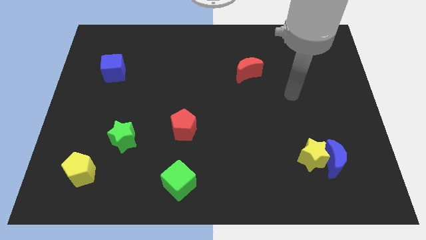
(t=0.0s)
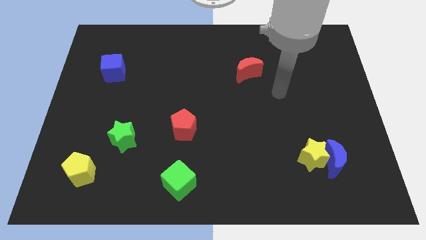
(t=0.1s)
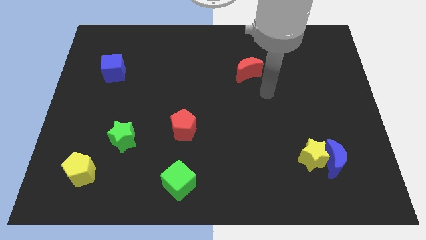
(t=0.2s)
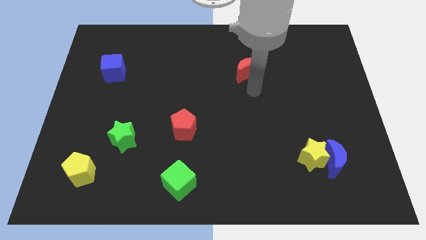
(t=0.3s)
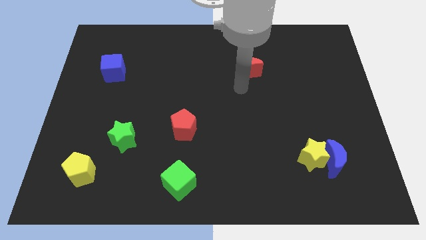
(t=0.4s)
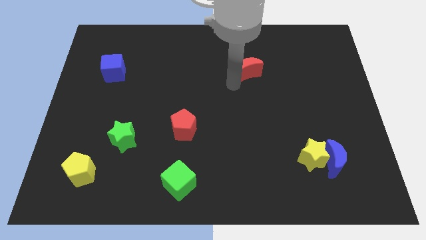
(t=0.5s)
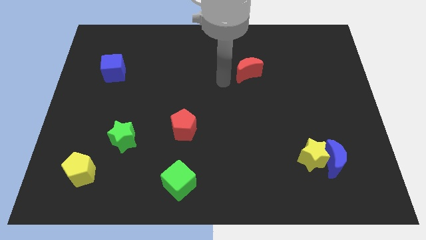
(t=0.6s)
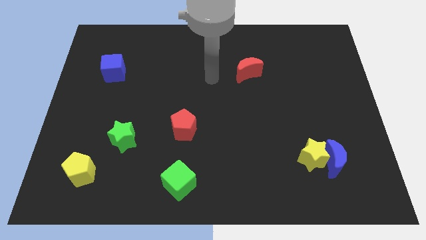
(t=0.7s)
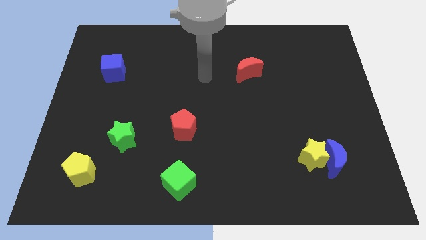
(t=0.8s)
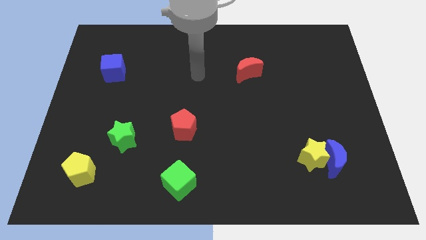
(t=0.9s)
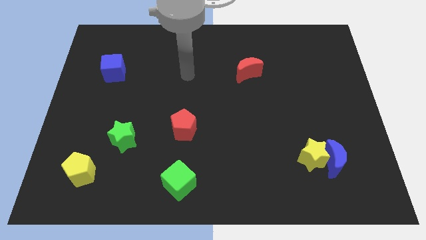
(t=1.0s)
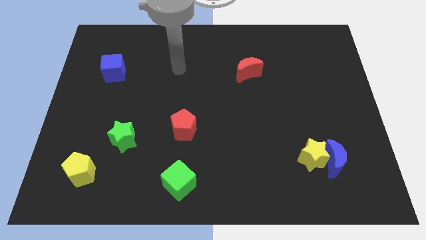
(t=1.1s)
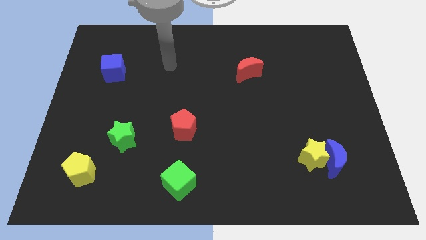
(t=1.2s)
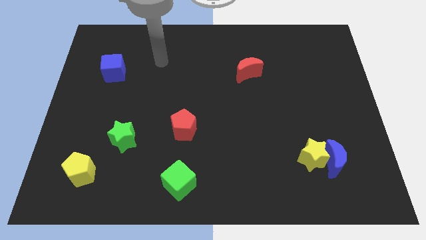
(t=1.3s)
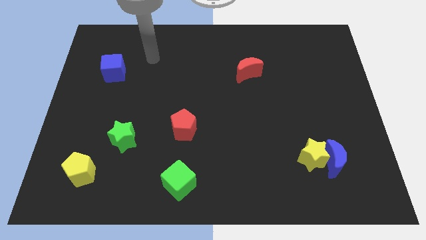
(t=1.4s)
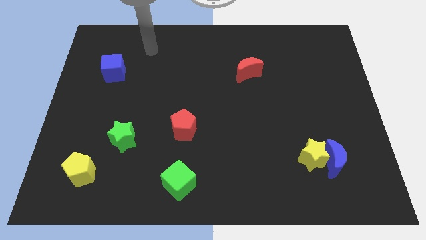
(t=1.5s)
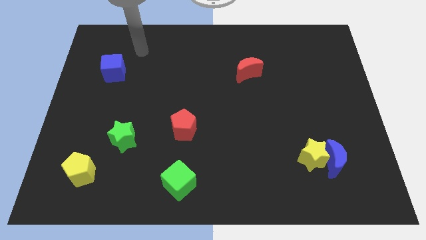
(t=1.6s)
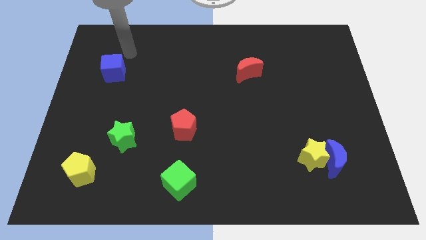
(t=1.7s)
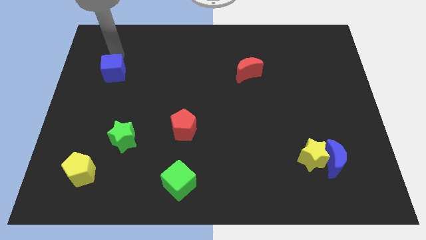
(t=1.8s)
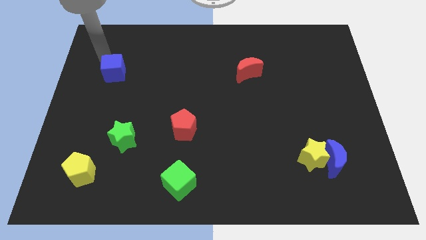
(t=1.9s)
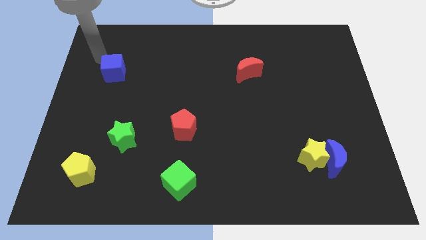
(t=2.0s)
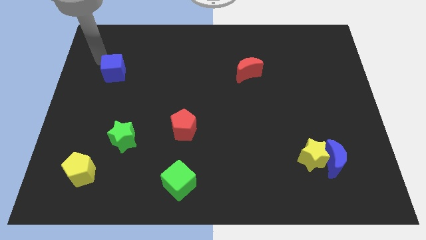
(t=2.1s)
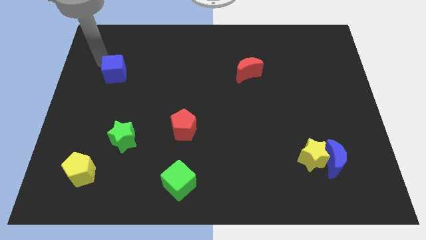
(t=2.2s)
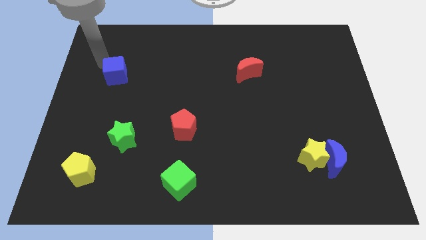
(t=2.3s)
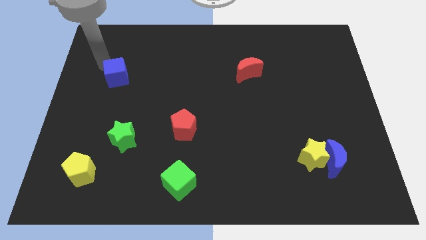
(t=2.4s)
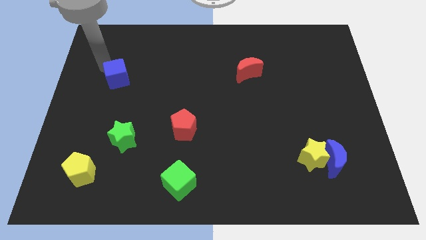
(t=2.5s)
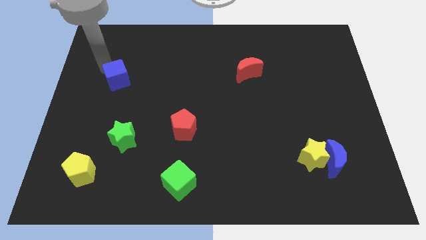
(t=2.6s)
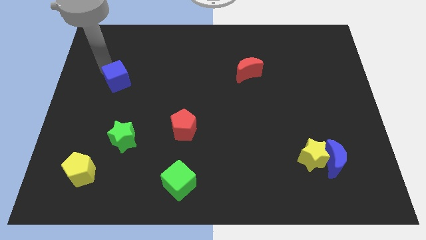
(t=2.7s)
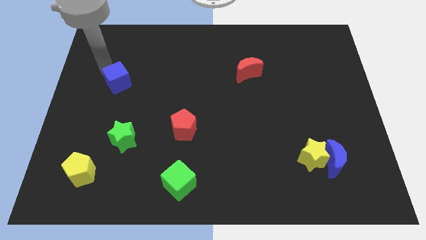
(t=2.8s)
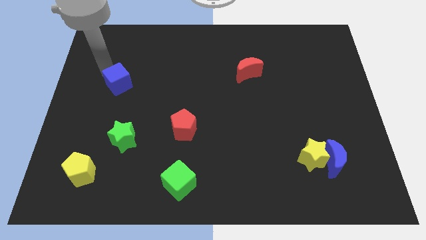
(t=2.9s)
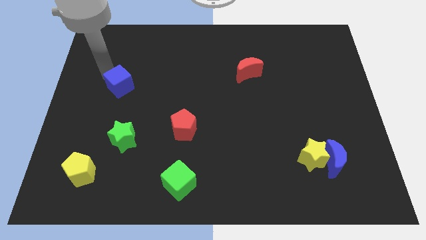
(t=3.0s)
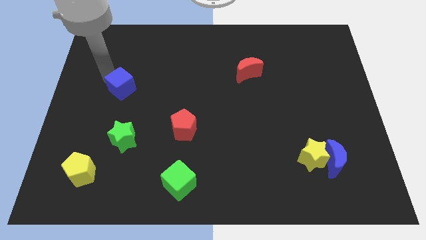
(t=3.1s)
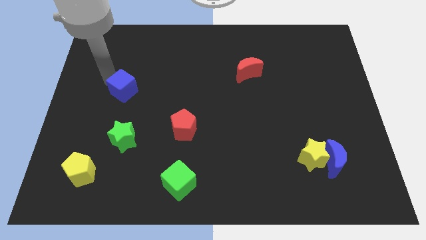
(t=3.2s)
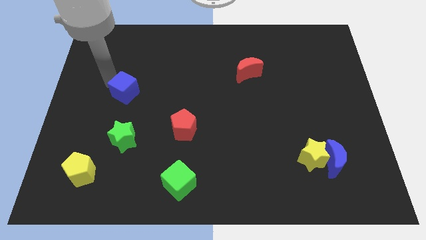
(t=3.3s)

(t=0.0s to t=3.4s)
slide the blue cube downwards and right a bit

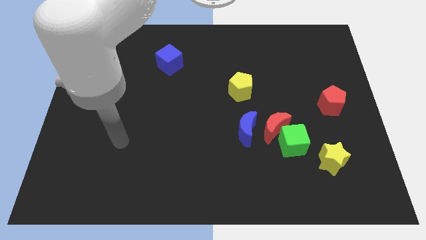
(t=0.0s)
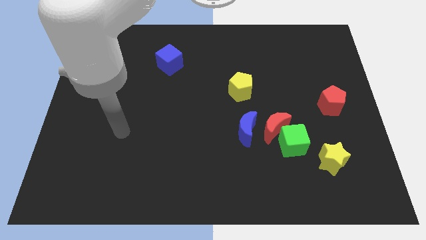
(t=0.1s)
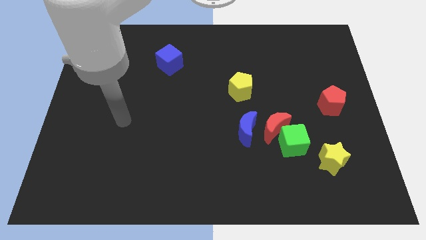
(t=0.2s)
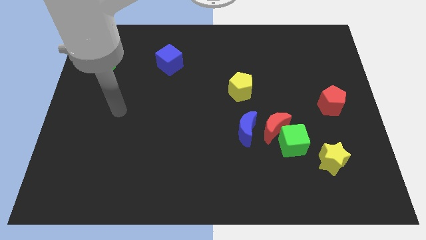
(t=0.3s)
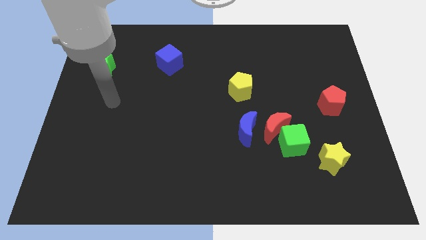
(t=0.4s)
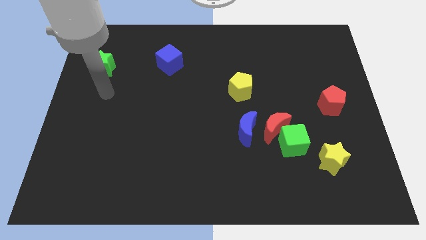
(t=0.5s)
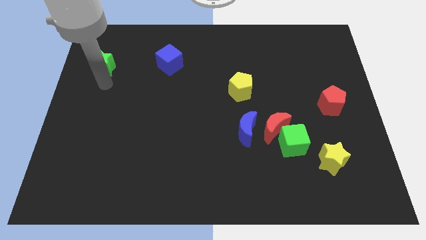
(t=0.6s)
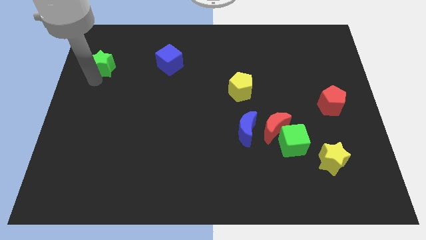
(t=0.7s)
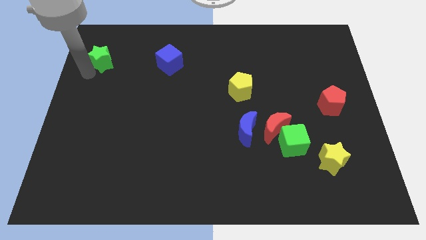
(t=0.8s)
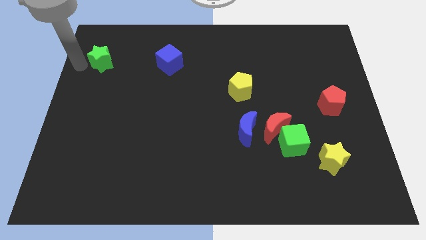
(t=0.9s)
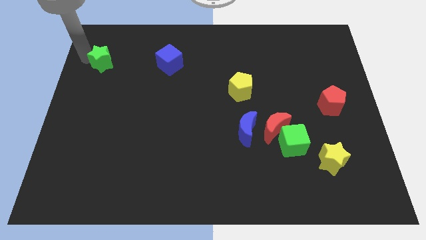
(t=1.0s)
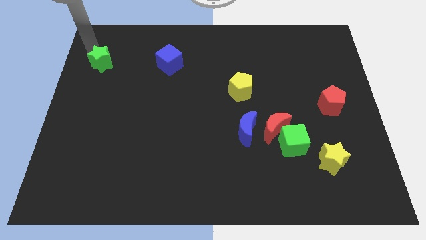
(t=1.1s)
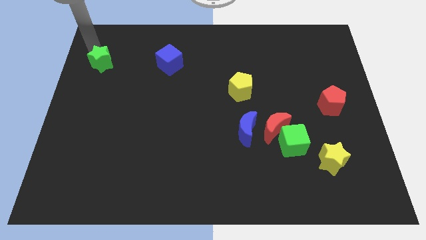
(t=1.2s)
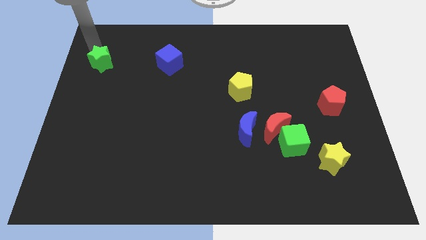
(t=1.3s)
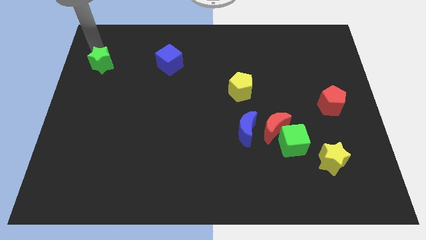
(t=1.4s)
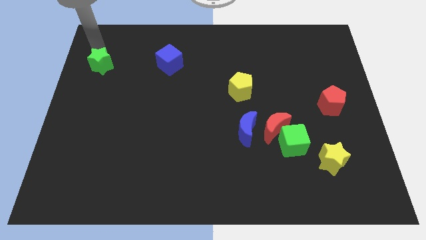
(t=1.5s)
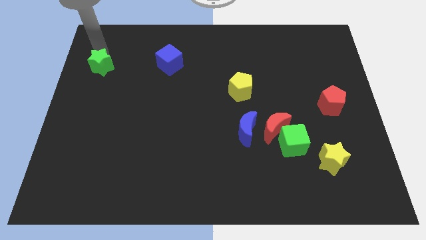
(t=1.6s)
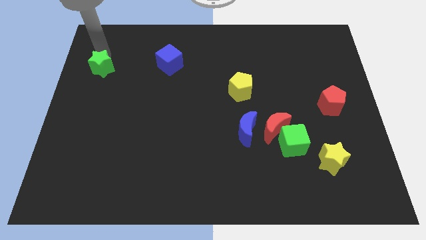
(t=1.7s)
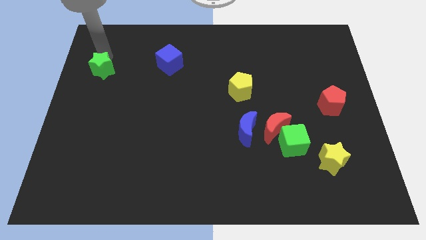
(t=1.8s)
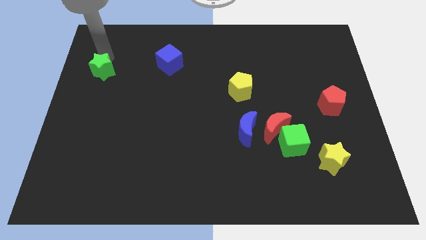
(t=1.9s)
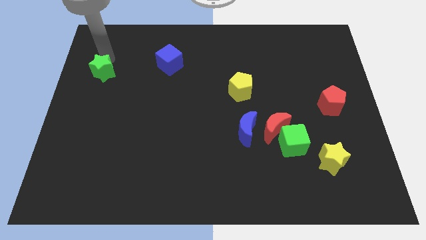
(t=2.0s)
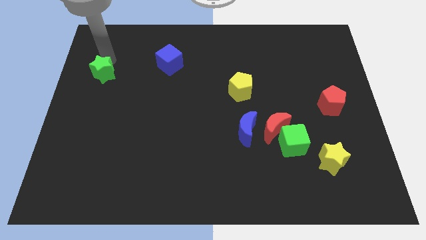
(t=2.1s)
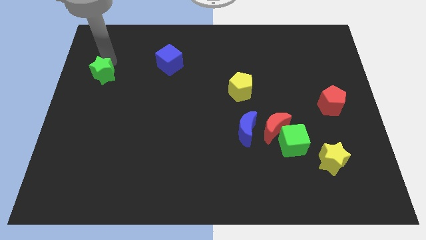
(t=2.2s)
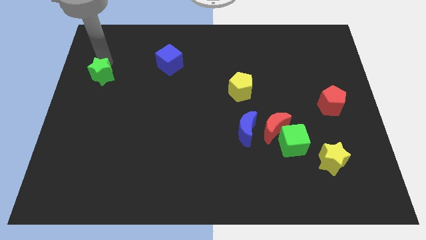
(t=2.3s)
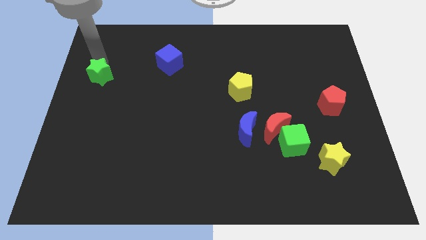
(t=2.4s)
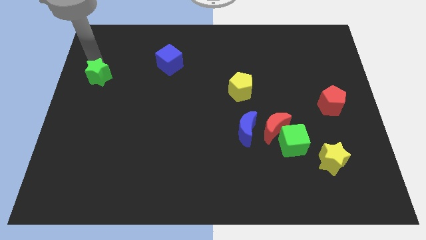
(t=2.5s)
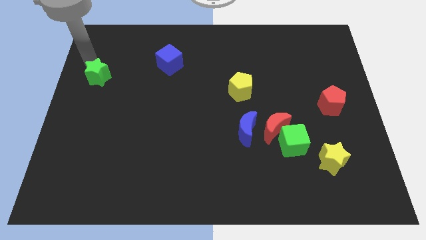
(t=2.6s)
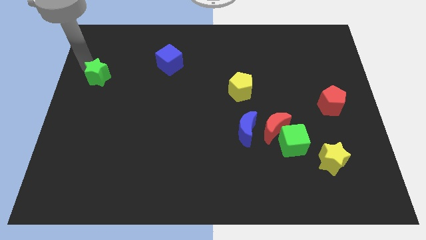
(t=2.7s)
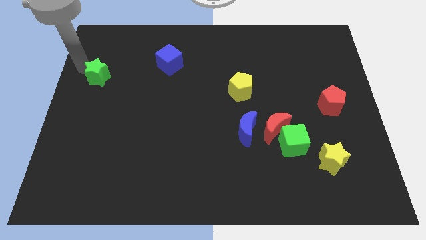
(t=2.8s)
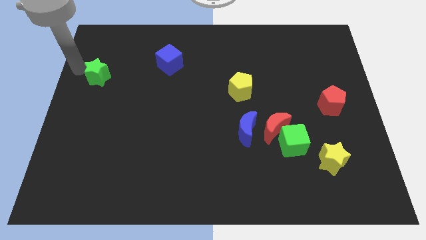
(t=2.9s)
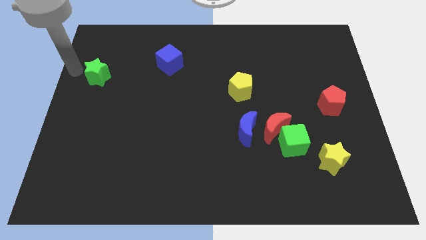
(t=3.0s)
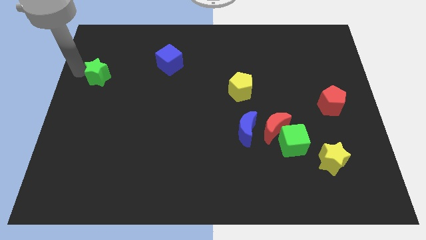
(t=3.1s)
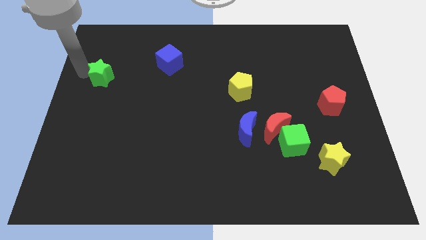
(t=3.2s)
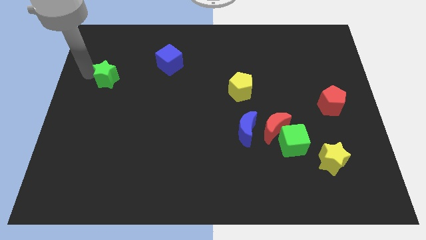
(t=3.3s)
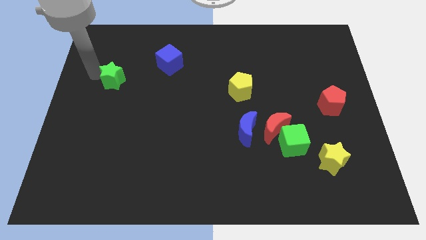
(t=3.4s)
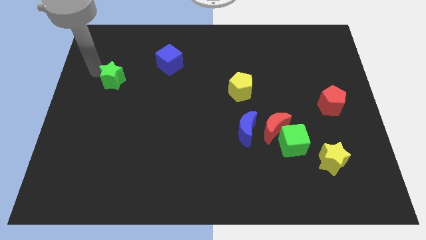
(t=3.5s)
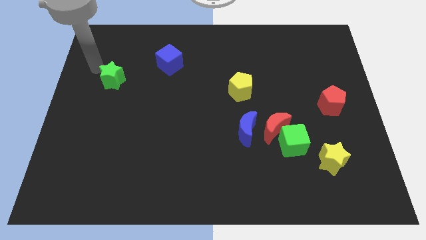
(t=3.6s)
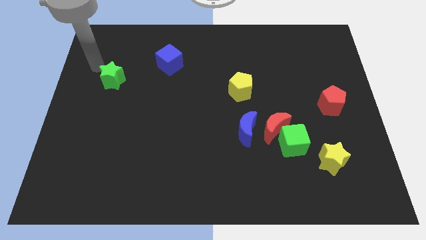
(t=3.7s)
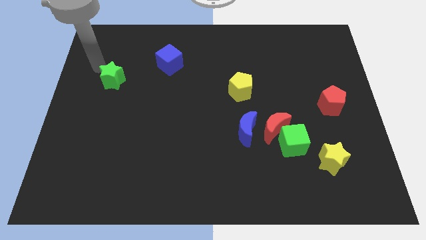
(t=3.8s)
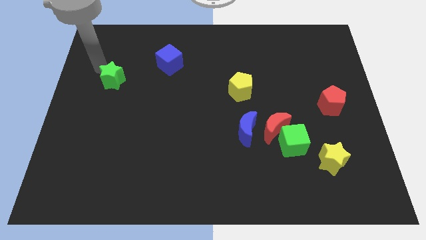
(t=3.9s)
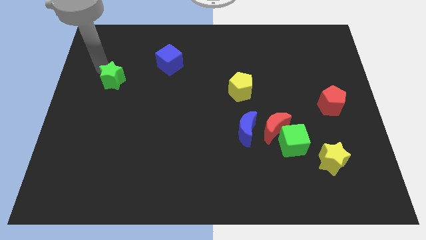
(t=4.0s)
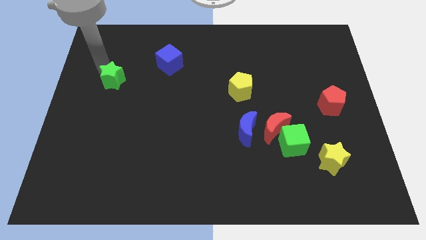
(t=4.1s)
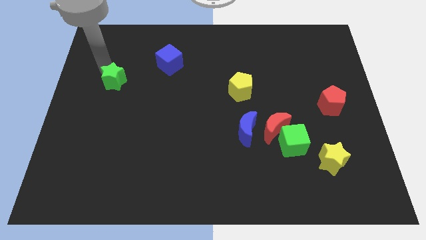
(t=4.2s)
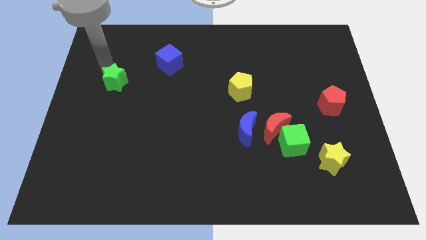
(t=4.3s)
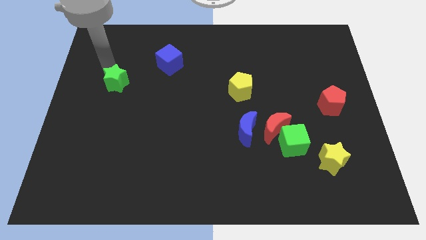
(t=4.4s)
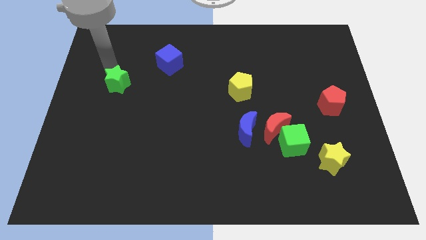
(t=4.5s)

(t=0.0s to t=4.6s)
slide the green star down and right diagonally a little bit
